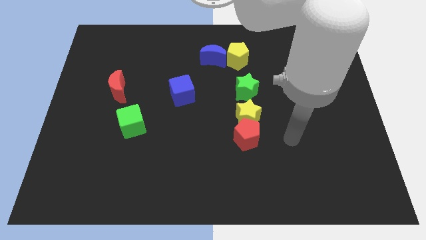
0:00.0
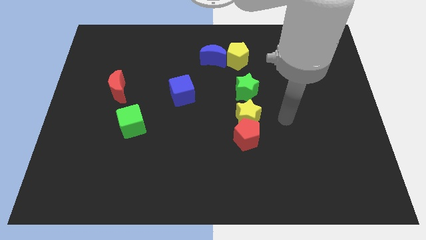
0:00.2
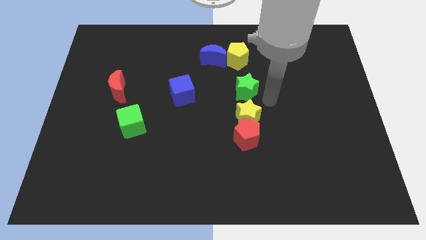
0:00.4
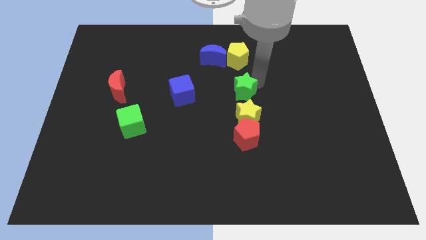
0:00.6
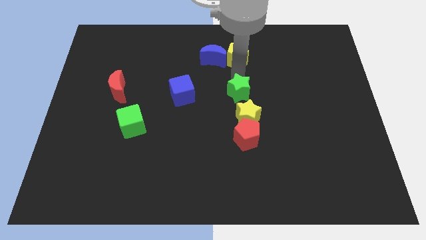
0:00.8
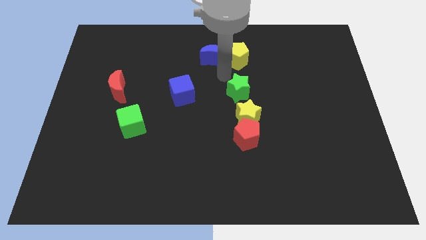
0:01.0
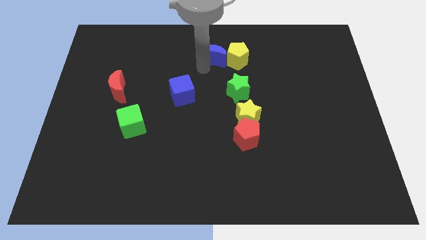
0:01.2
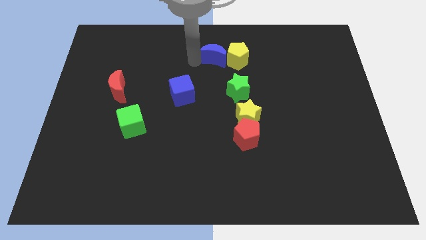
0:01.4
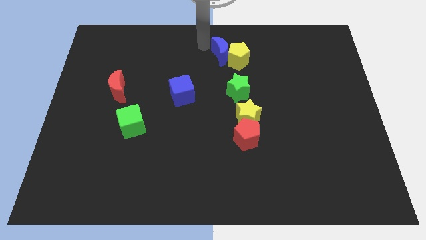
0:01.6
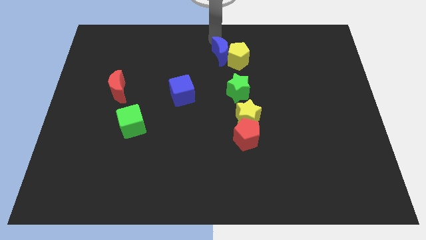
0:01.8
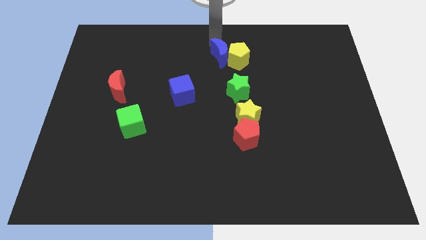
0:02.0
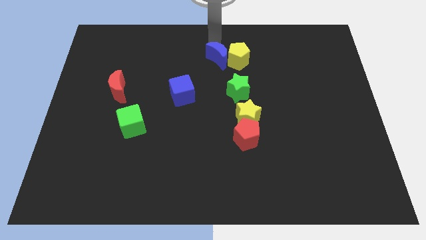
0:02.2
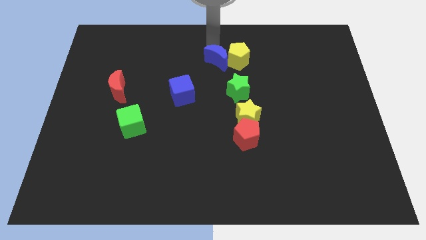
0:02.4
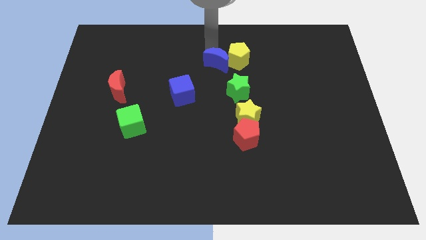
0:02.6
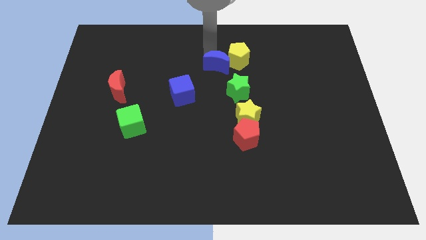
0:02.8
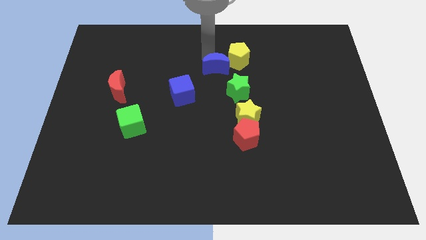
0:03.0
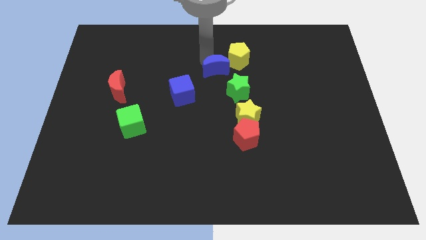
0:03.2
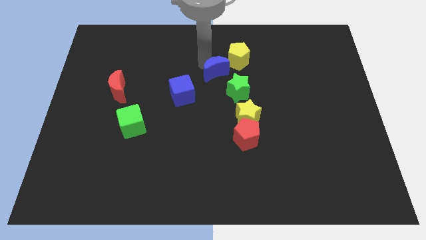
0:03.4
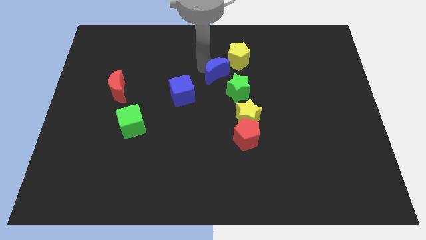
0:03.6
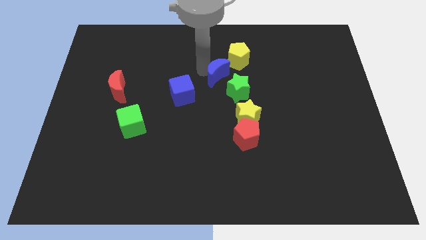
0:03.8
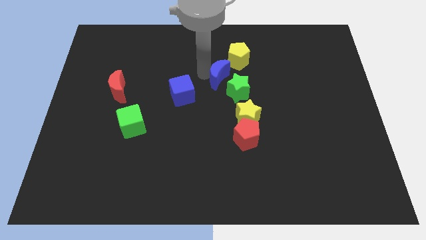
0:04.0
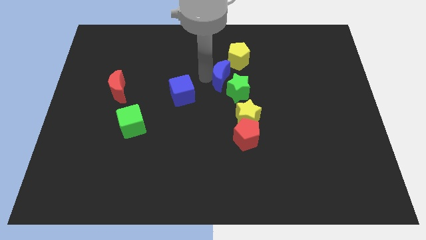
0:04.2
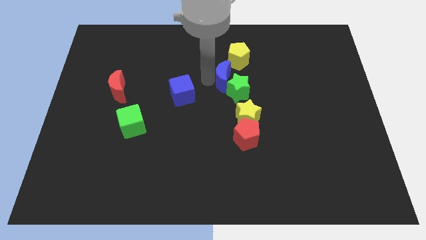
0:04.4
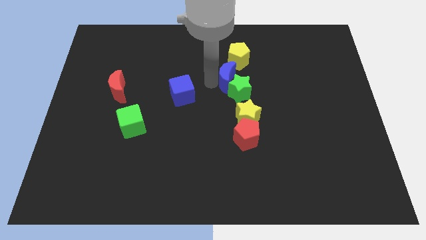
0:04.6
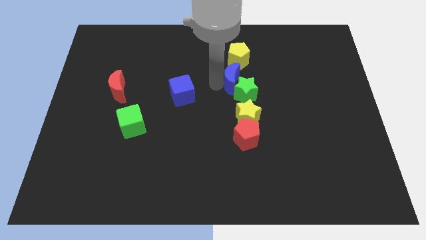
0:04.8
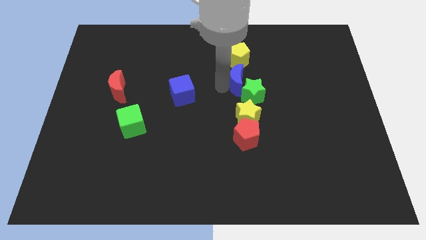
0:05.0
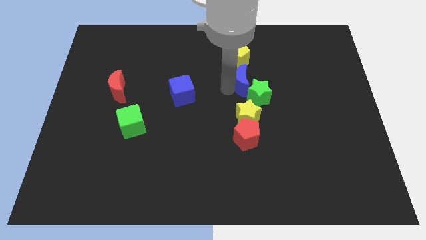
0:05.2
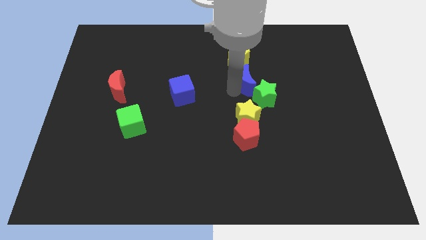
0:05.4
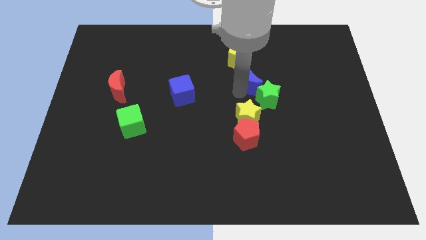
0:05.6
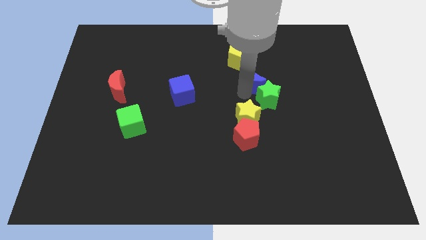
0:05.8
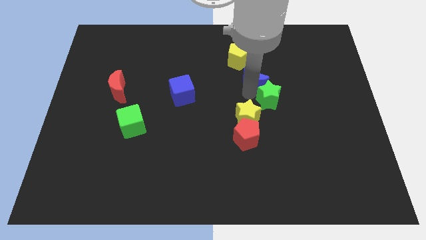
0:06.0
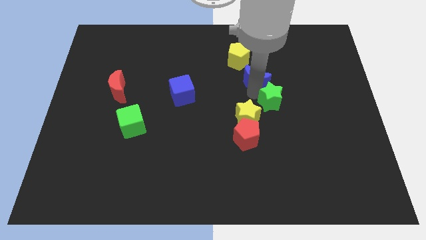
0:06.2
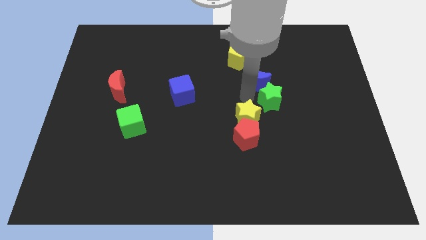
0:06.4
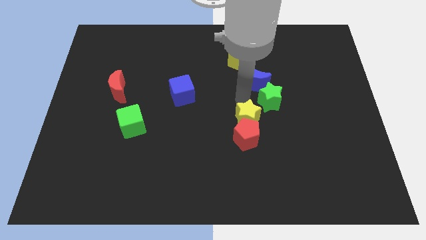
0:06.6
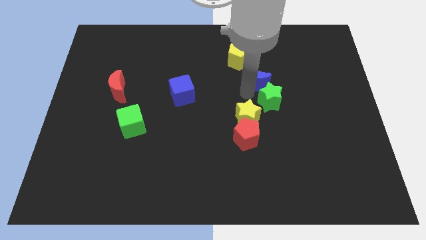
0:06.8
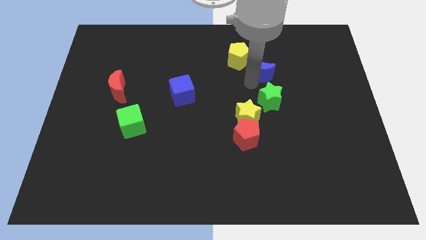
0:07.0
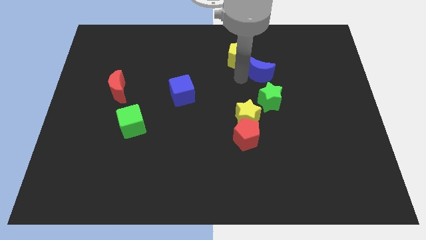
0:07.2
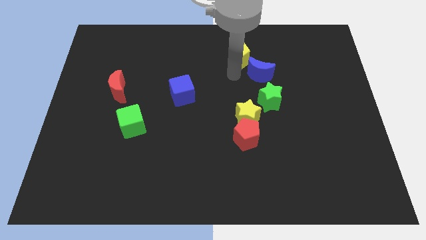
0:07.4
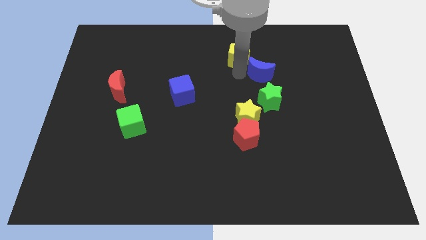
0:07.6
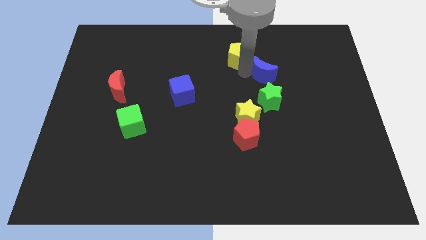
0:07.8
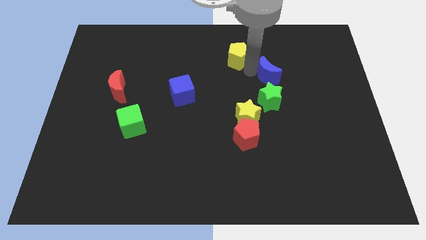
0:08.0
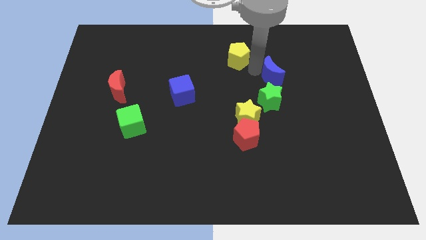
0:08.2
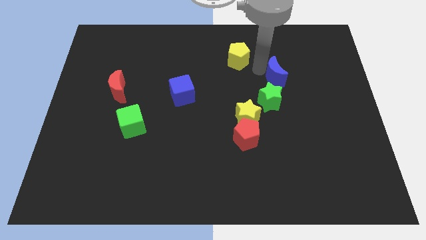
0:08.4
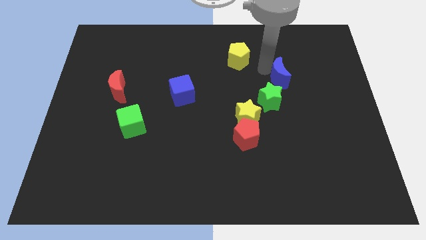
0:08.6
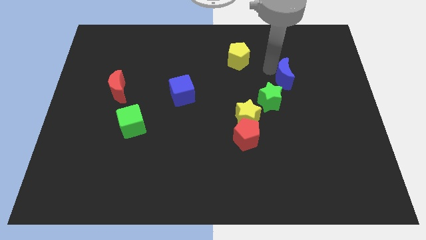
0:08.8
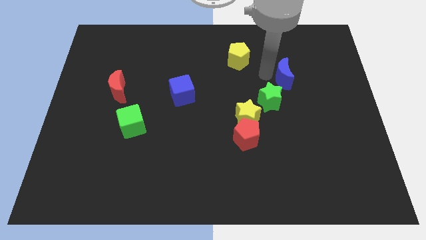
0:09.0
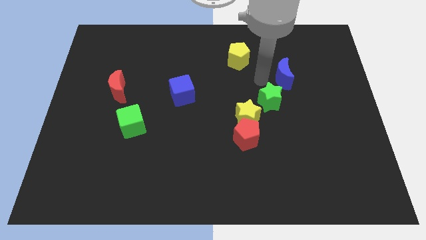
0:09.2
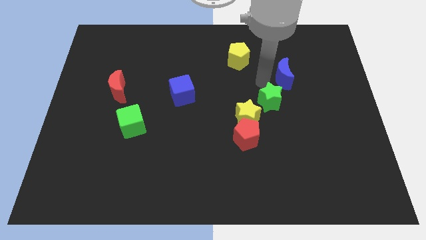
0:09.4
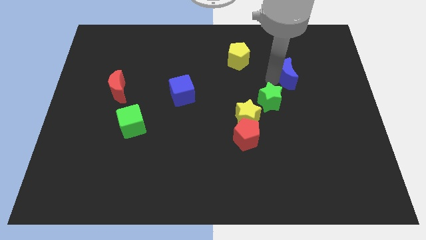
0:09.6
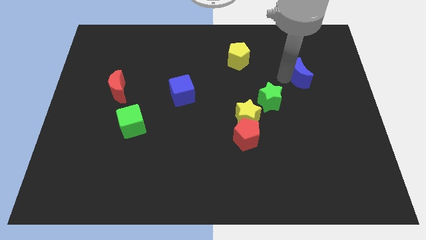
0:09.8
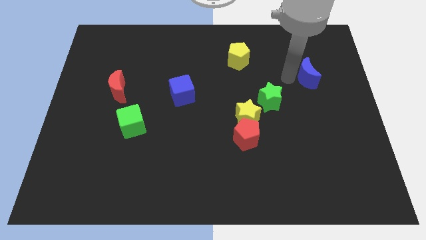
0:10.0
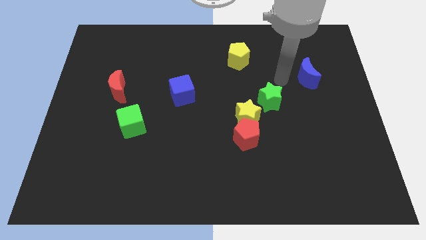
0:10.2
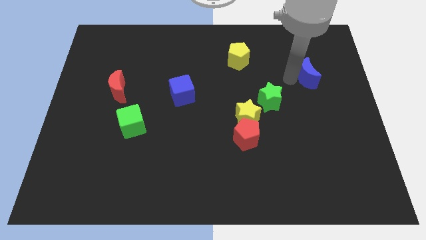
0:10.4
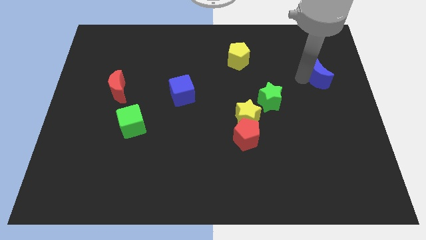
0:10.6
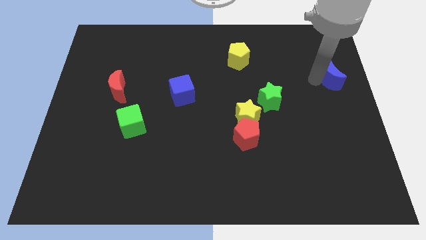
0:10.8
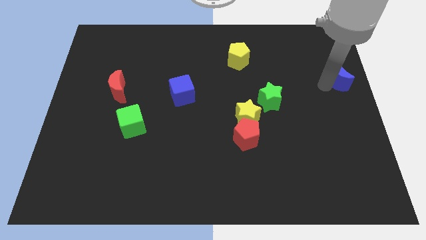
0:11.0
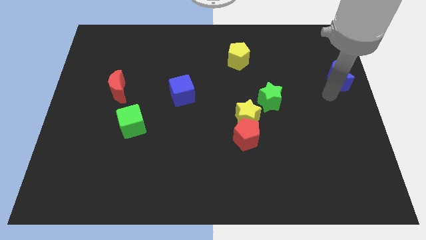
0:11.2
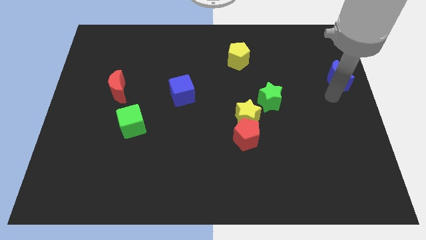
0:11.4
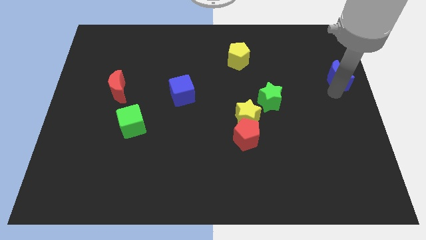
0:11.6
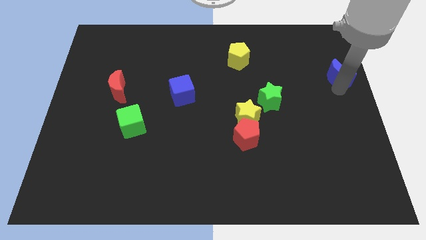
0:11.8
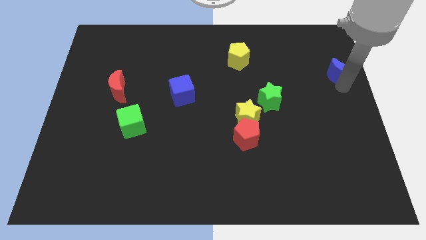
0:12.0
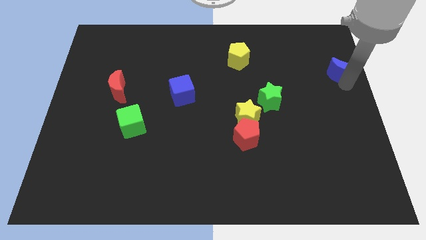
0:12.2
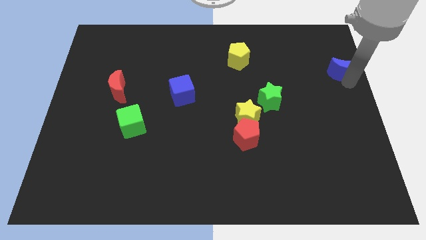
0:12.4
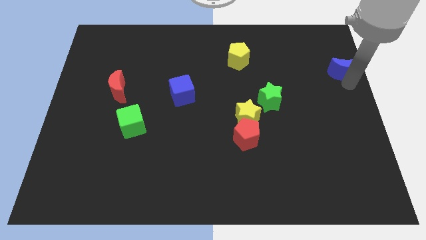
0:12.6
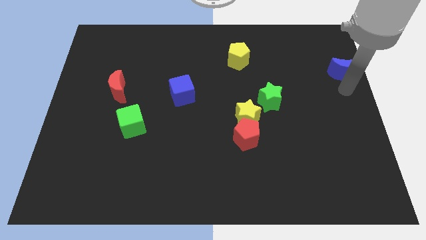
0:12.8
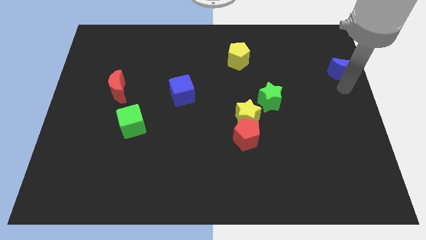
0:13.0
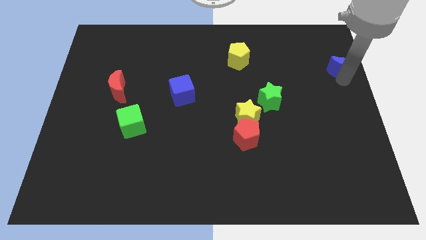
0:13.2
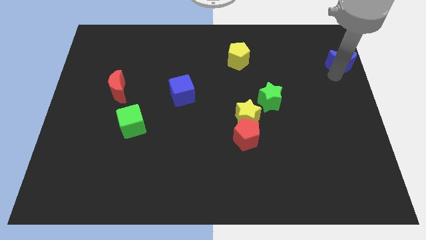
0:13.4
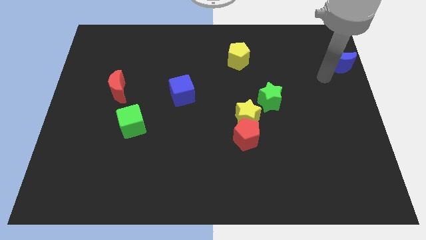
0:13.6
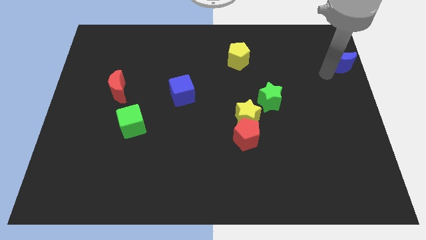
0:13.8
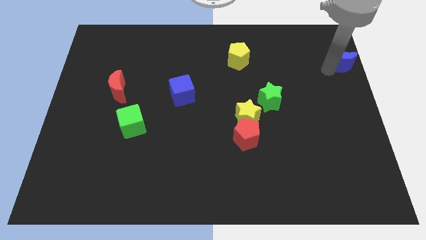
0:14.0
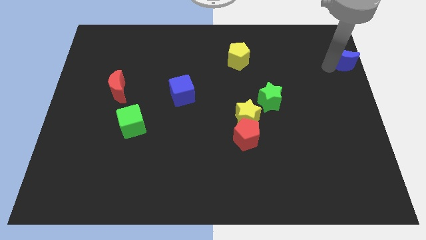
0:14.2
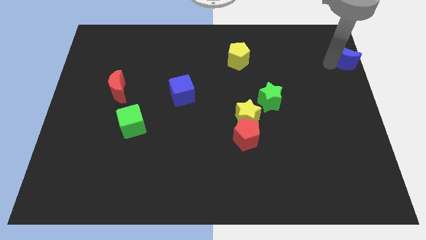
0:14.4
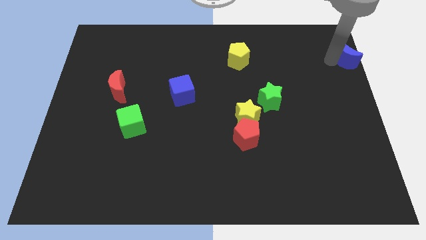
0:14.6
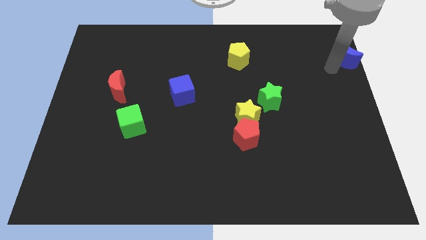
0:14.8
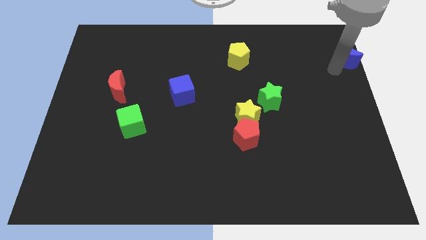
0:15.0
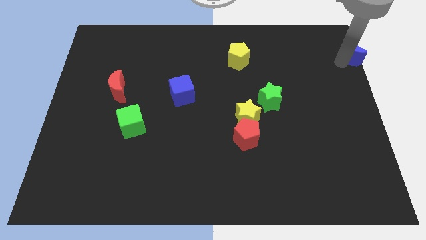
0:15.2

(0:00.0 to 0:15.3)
push the blue moon to the top right of the board
